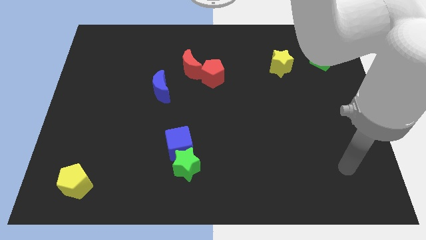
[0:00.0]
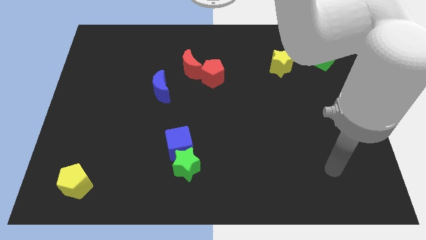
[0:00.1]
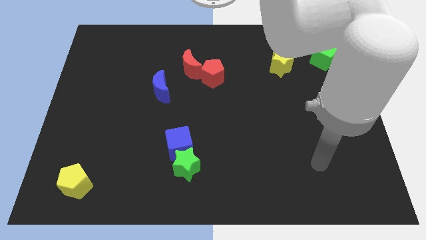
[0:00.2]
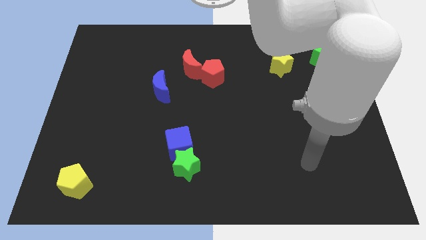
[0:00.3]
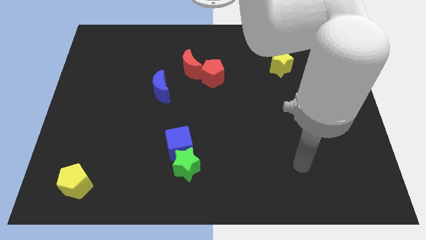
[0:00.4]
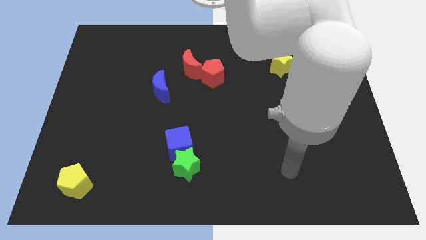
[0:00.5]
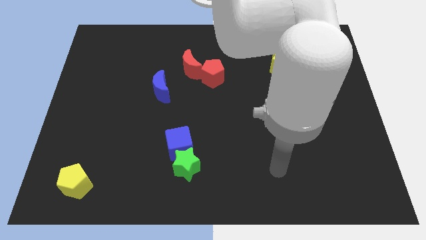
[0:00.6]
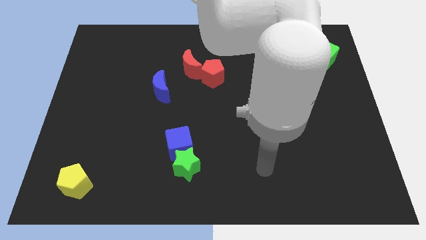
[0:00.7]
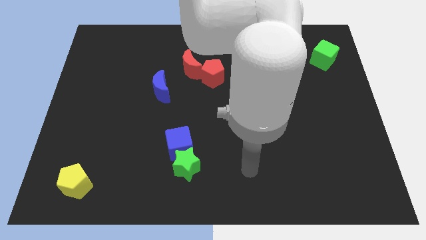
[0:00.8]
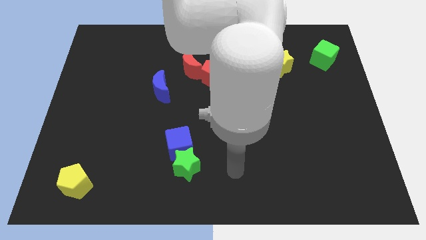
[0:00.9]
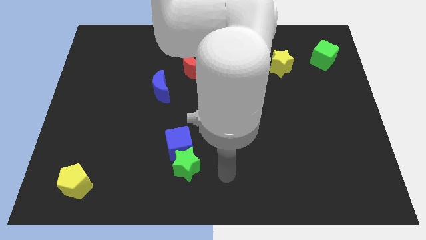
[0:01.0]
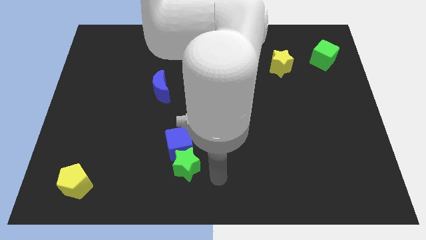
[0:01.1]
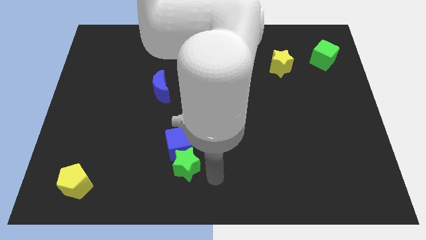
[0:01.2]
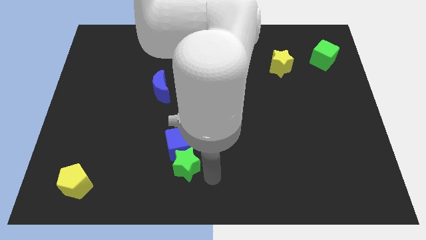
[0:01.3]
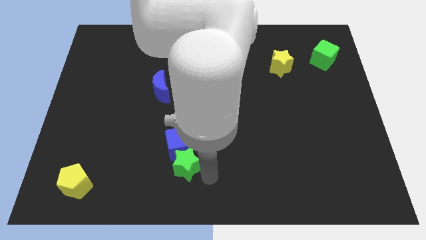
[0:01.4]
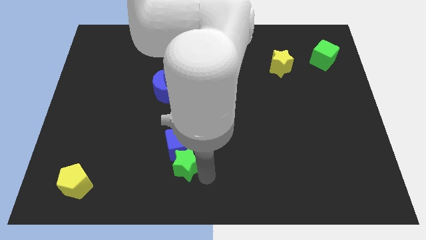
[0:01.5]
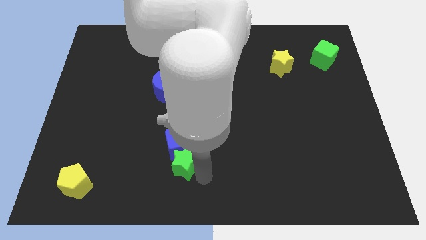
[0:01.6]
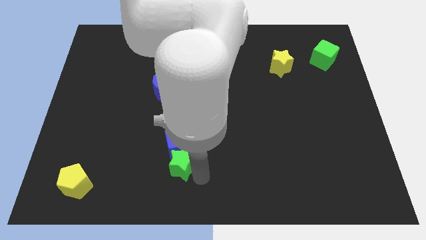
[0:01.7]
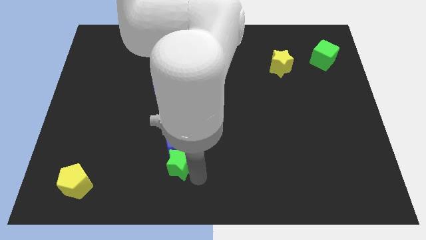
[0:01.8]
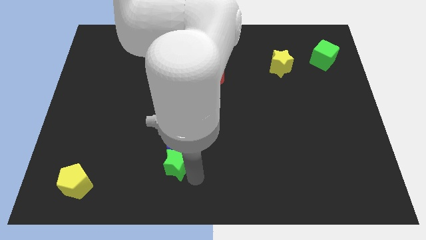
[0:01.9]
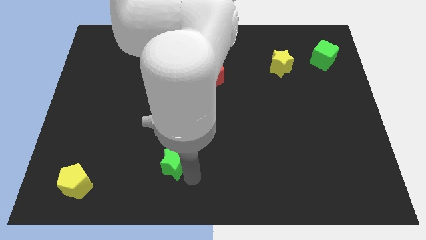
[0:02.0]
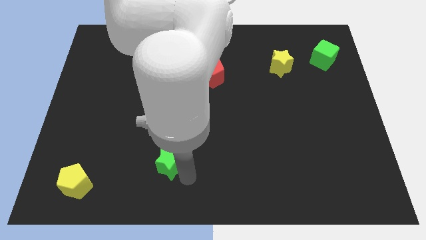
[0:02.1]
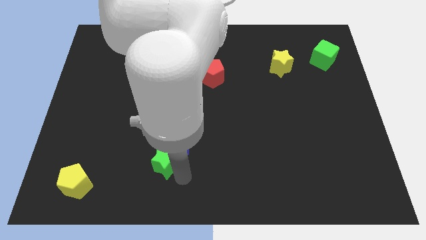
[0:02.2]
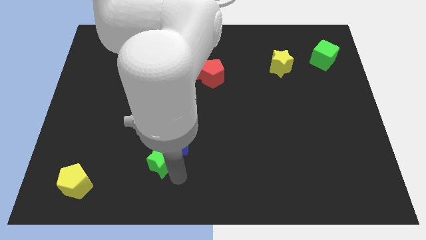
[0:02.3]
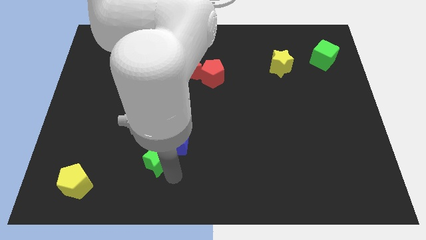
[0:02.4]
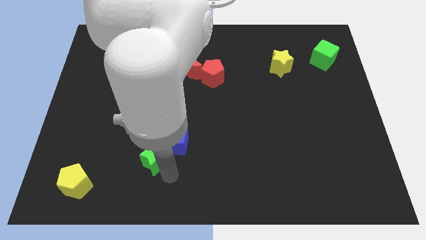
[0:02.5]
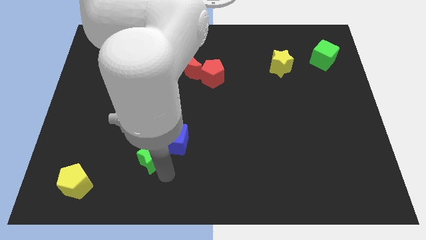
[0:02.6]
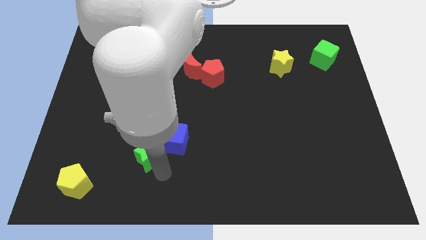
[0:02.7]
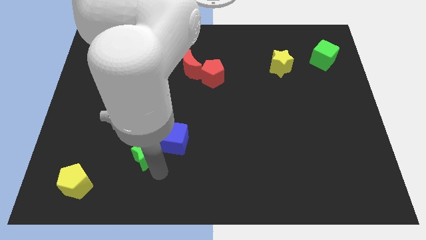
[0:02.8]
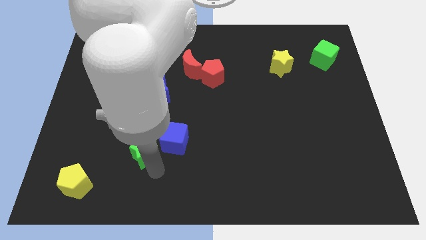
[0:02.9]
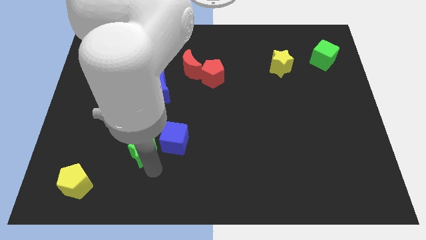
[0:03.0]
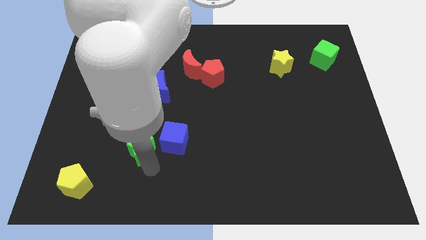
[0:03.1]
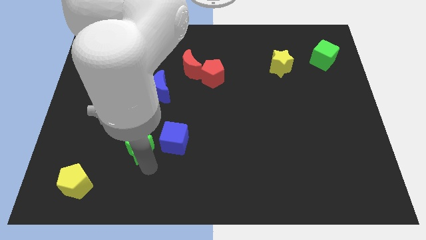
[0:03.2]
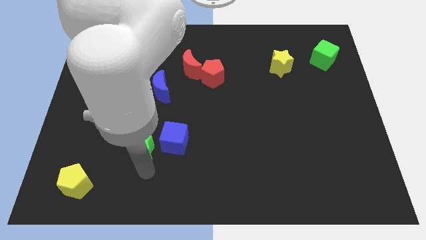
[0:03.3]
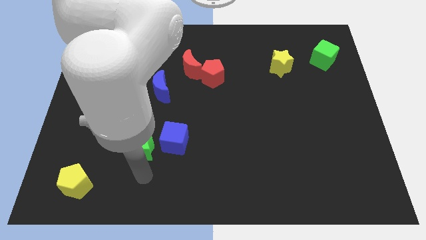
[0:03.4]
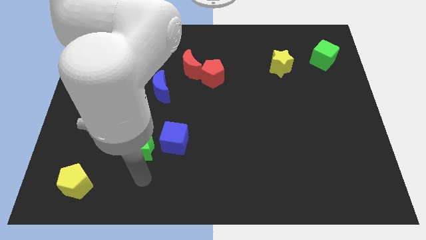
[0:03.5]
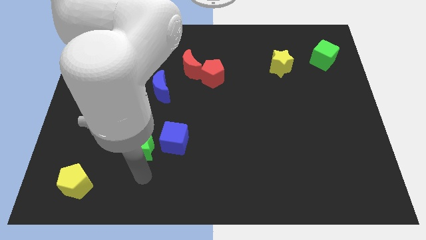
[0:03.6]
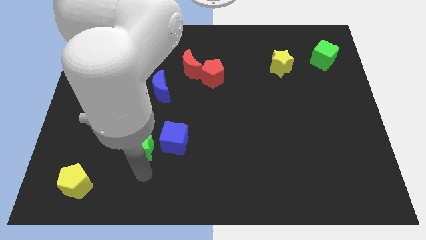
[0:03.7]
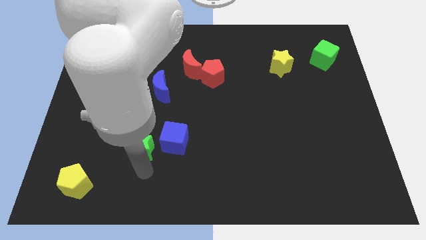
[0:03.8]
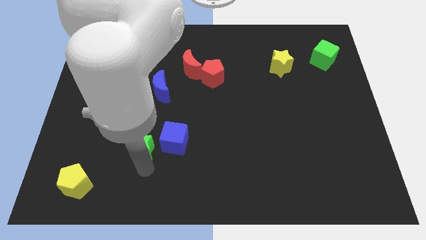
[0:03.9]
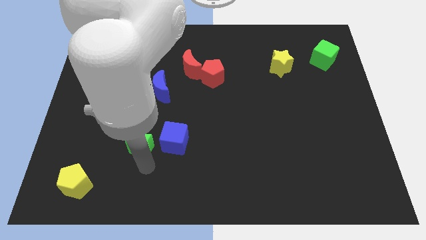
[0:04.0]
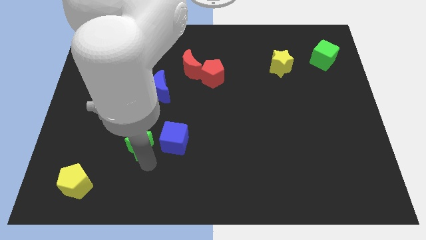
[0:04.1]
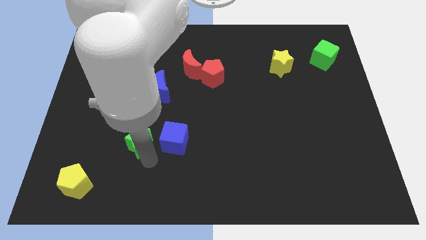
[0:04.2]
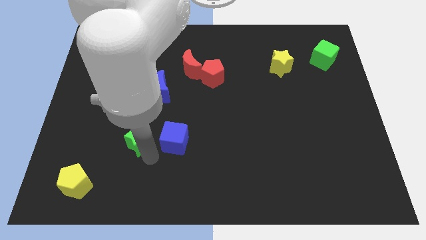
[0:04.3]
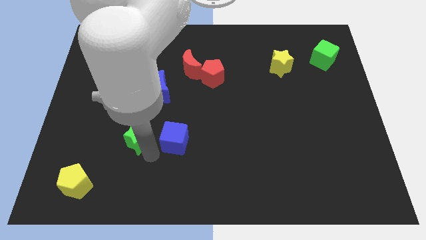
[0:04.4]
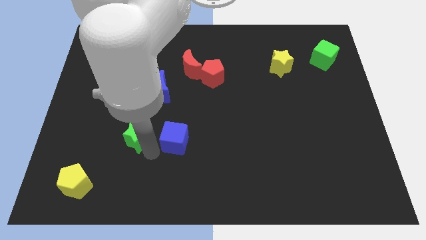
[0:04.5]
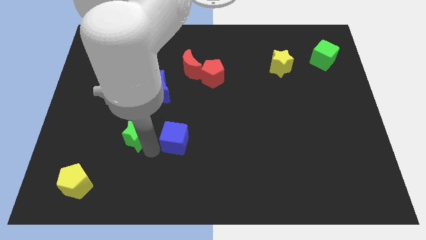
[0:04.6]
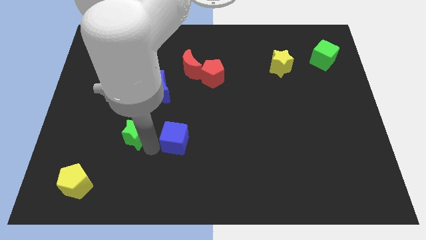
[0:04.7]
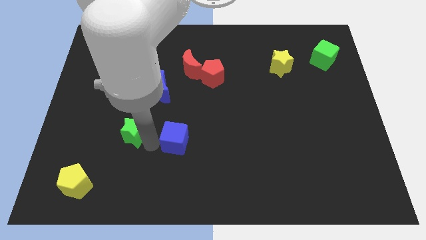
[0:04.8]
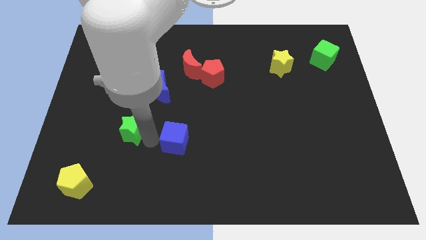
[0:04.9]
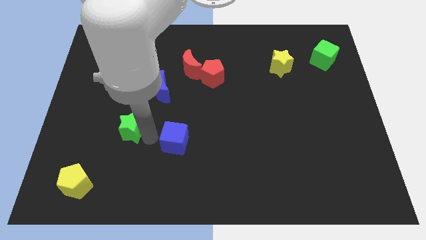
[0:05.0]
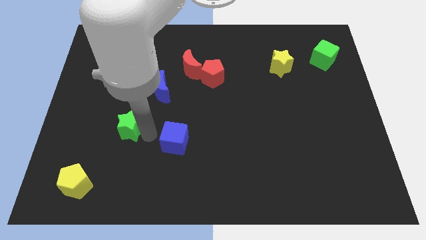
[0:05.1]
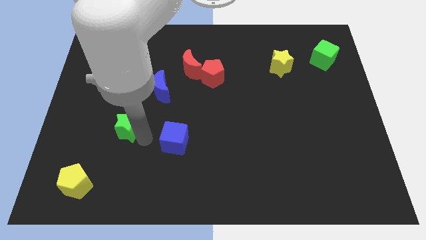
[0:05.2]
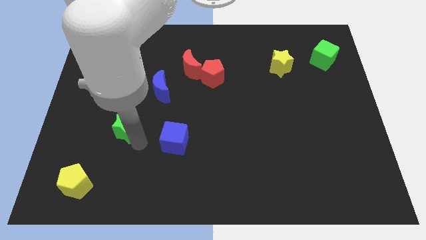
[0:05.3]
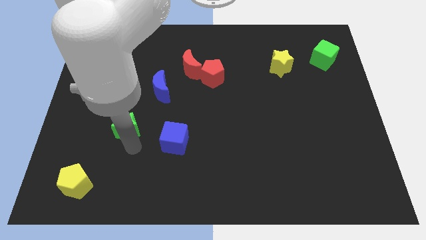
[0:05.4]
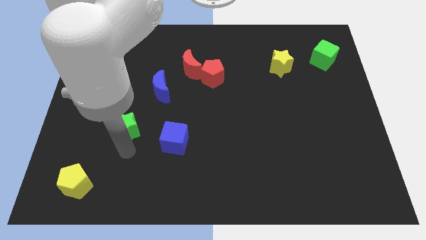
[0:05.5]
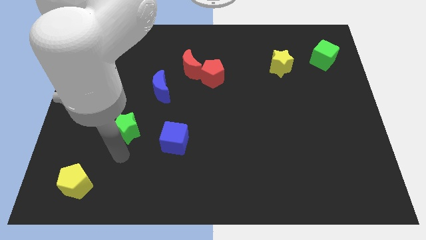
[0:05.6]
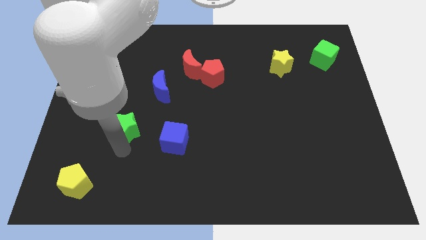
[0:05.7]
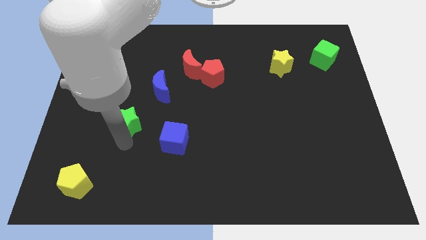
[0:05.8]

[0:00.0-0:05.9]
slide the green star to the bottom left of the blue moon

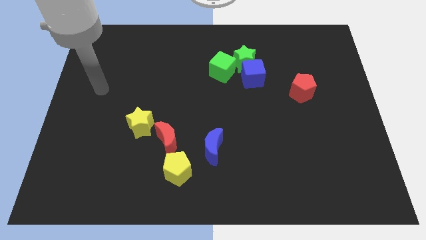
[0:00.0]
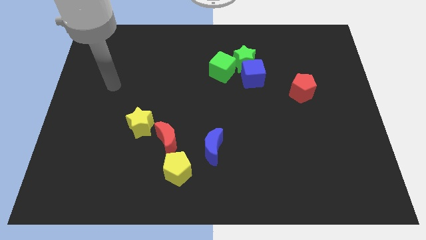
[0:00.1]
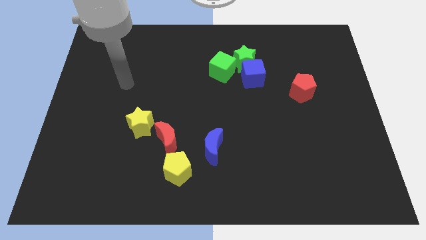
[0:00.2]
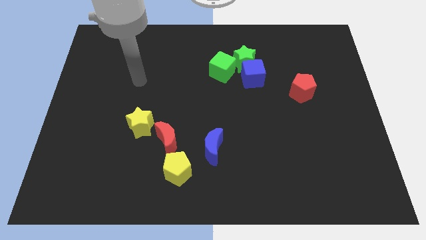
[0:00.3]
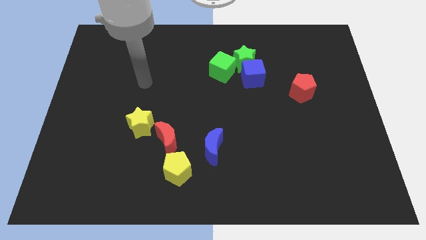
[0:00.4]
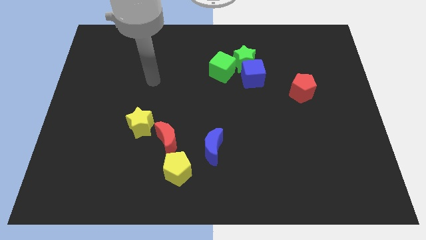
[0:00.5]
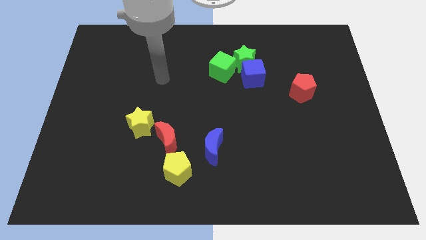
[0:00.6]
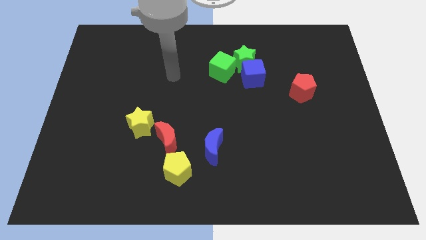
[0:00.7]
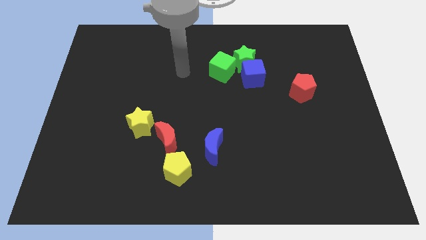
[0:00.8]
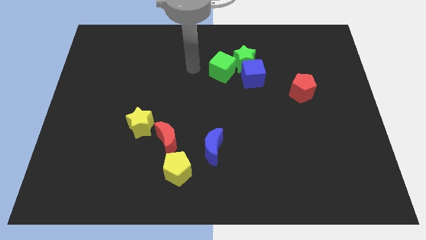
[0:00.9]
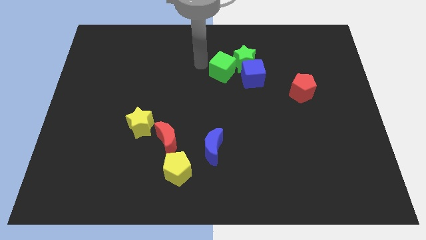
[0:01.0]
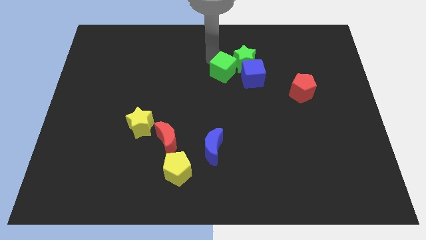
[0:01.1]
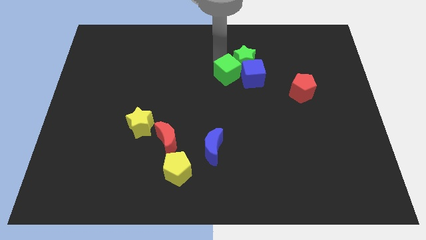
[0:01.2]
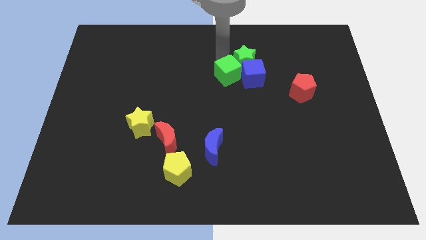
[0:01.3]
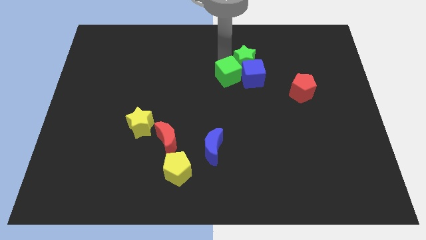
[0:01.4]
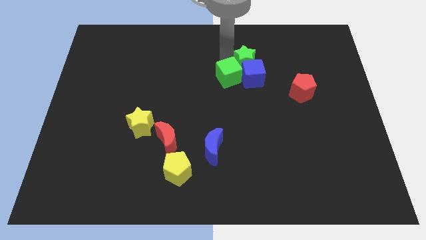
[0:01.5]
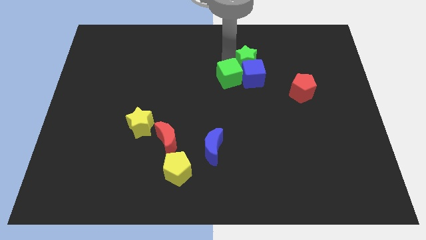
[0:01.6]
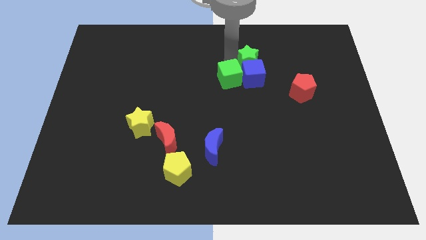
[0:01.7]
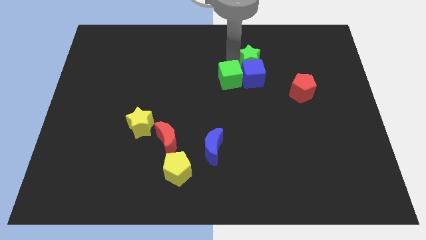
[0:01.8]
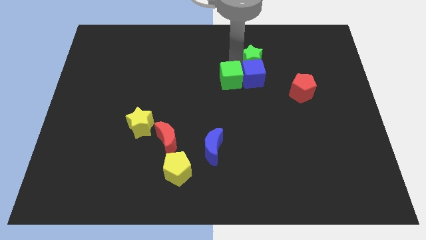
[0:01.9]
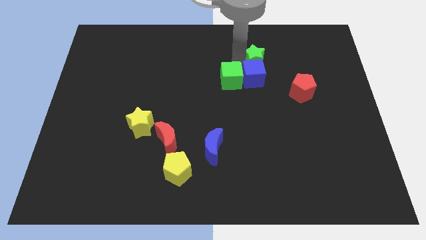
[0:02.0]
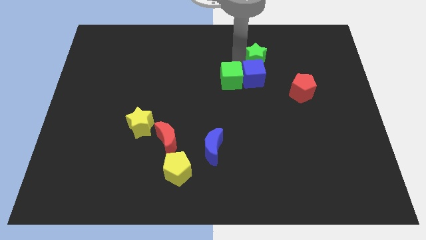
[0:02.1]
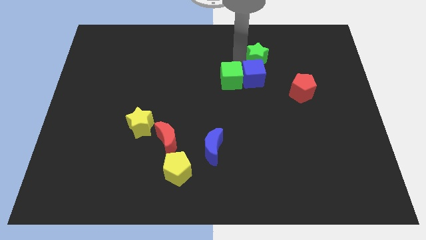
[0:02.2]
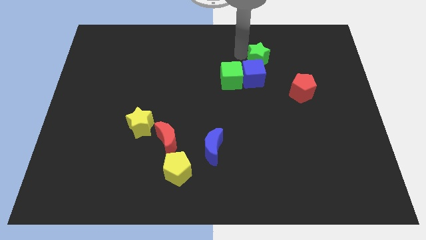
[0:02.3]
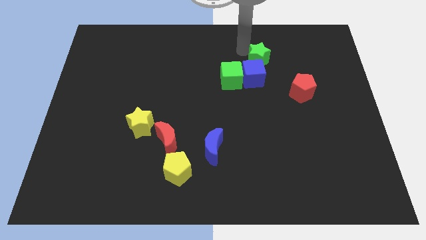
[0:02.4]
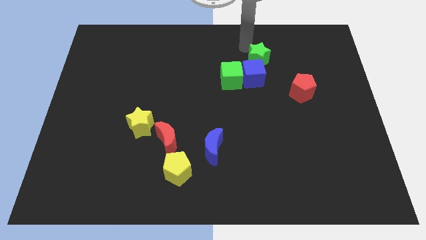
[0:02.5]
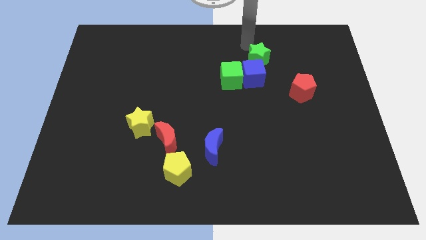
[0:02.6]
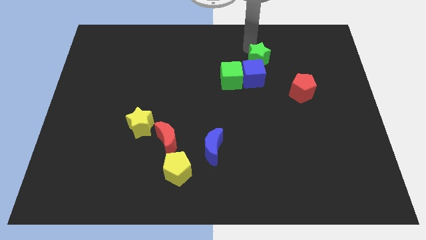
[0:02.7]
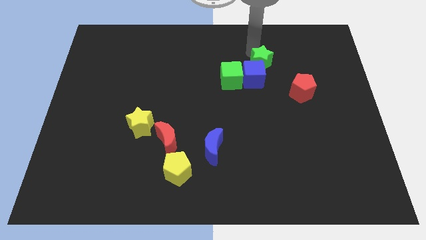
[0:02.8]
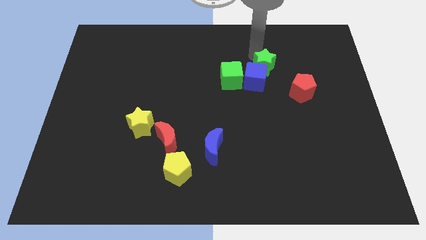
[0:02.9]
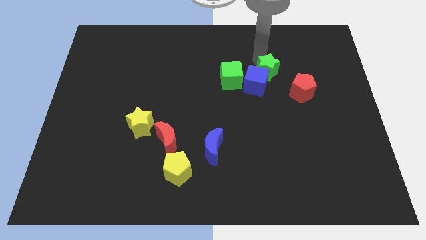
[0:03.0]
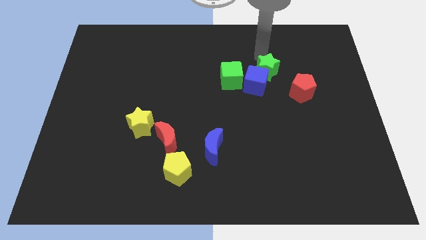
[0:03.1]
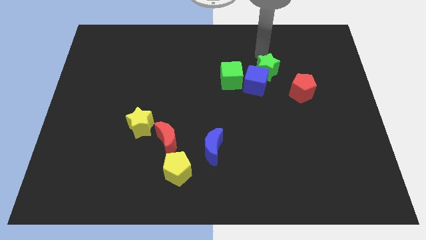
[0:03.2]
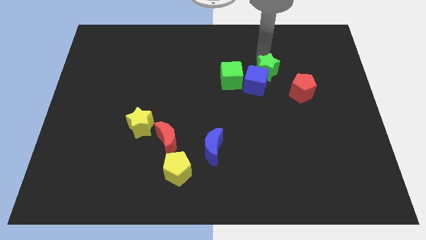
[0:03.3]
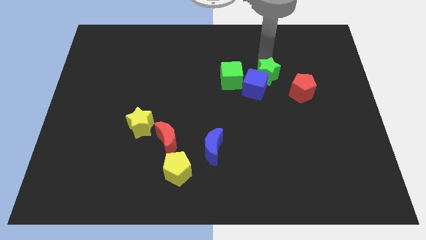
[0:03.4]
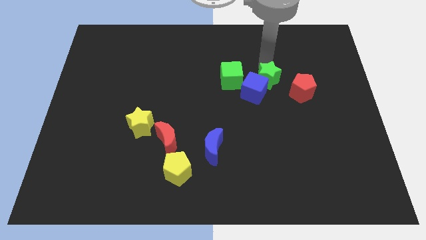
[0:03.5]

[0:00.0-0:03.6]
push the green star just left of the red pentagon
